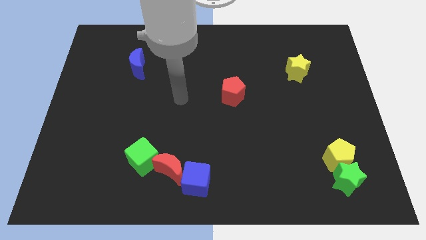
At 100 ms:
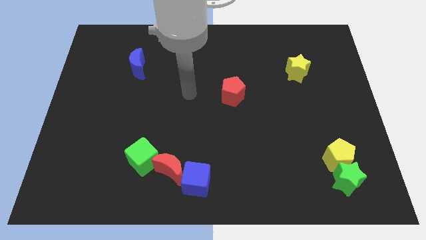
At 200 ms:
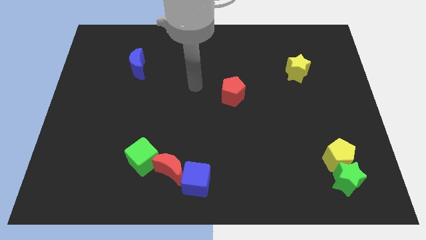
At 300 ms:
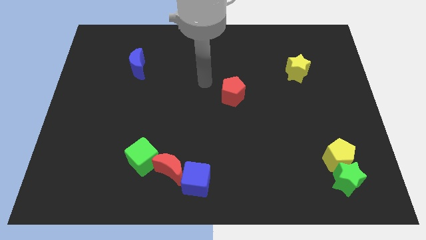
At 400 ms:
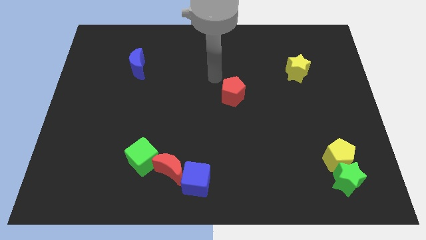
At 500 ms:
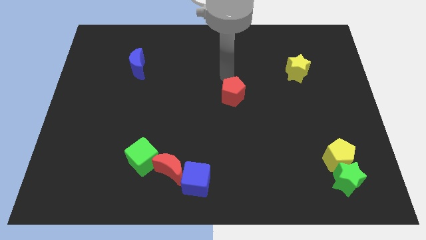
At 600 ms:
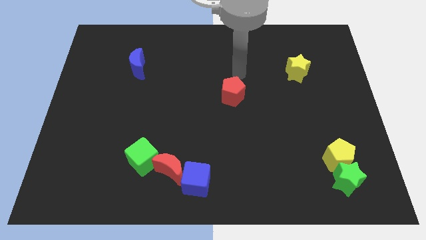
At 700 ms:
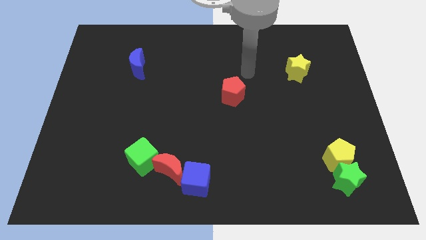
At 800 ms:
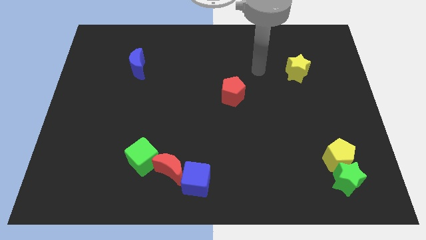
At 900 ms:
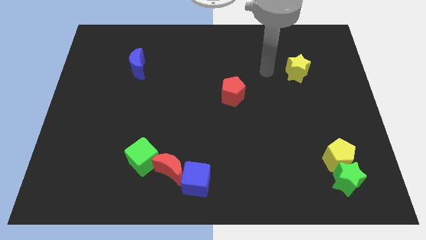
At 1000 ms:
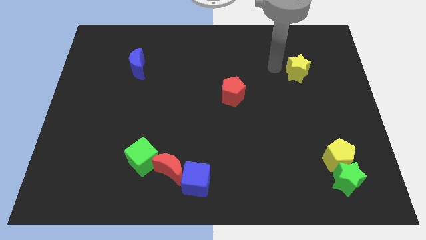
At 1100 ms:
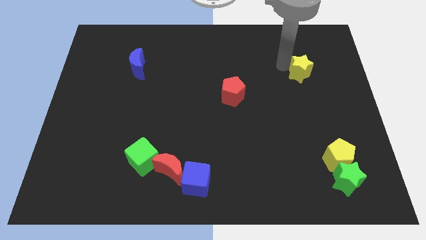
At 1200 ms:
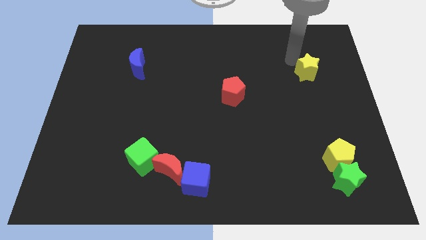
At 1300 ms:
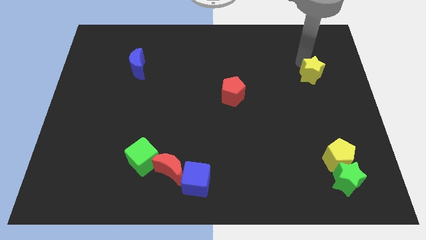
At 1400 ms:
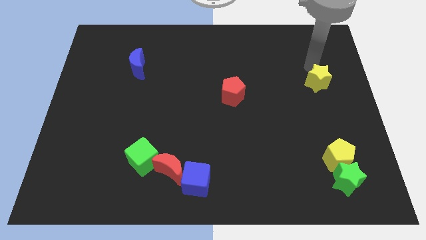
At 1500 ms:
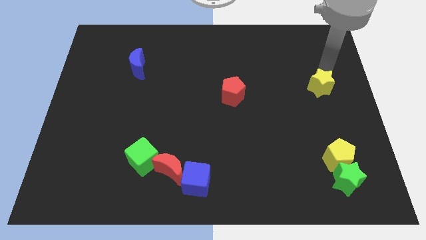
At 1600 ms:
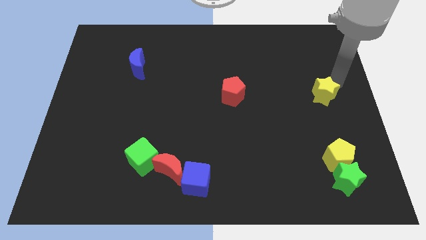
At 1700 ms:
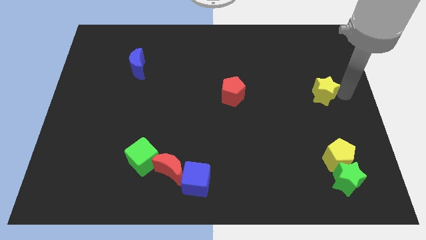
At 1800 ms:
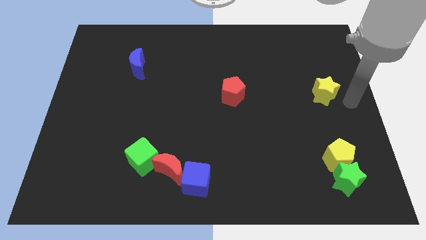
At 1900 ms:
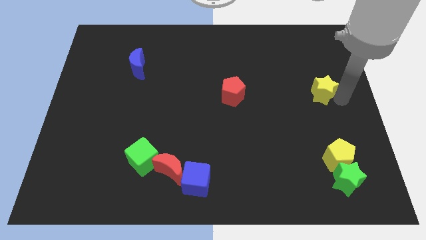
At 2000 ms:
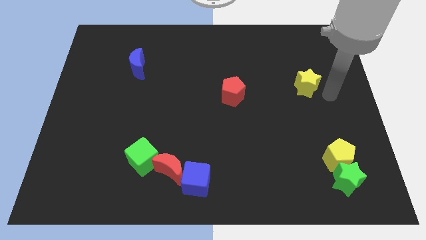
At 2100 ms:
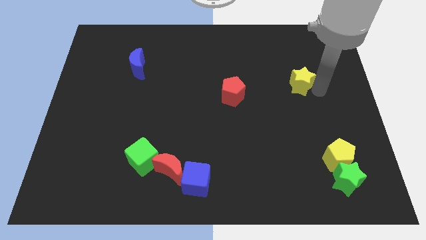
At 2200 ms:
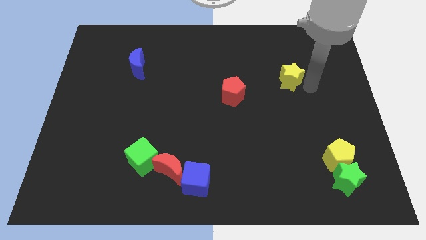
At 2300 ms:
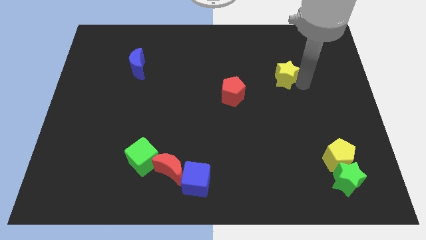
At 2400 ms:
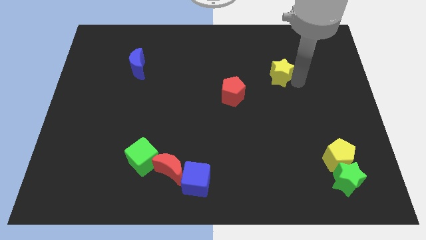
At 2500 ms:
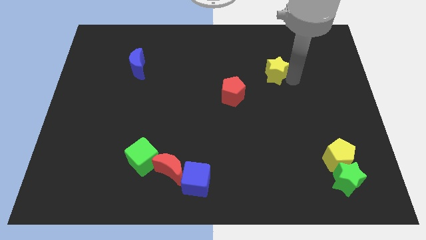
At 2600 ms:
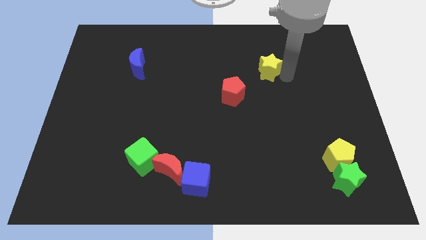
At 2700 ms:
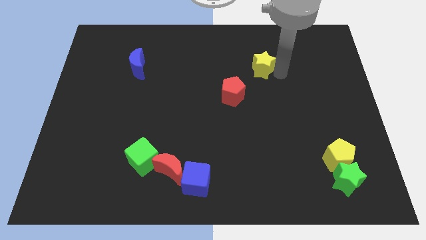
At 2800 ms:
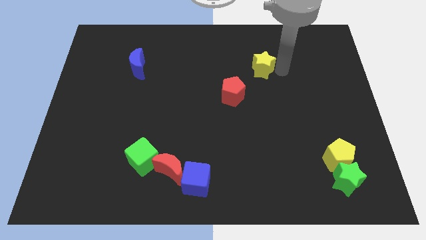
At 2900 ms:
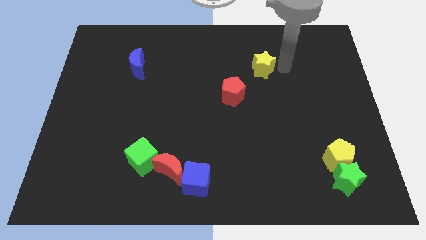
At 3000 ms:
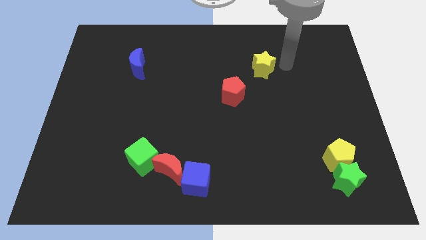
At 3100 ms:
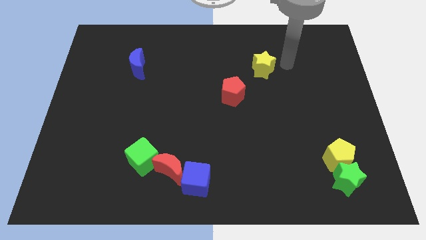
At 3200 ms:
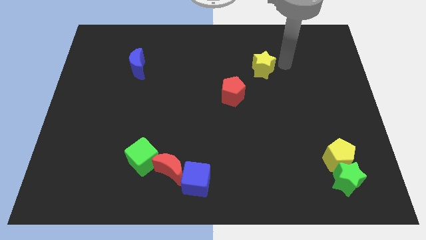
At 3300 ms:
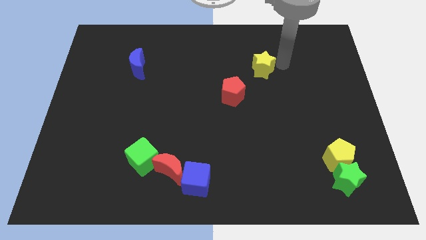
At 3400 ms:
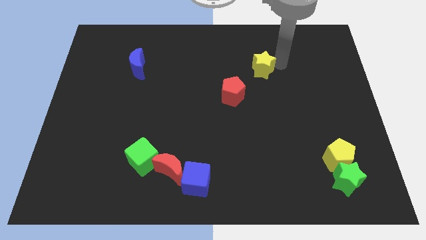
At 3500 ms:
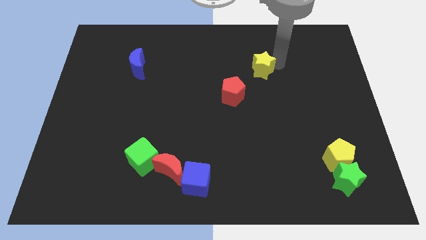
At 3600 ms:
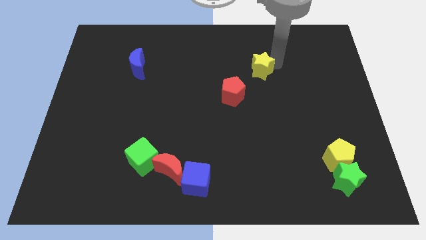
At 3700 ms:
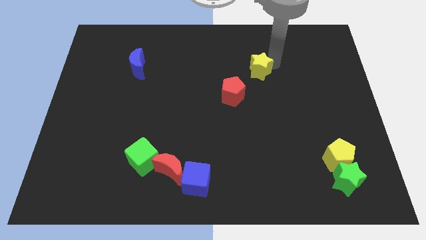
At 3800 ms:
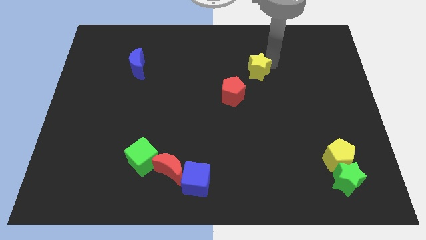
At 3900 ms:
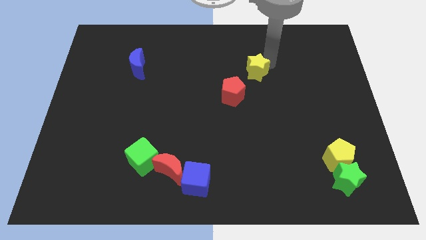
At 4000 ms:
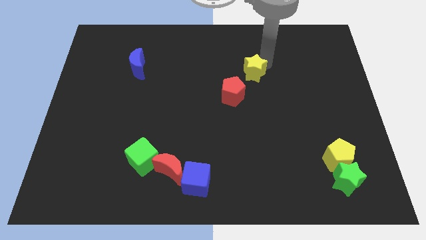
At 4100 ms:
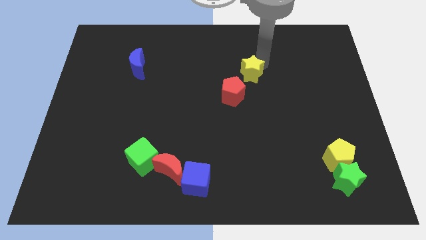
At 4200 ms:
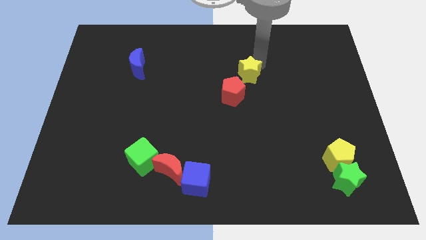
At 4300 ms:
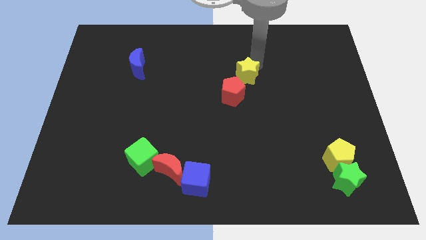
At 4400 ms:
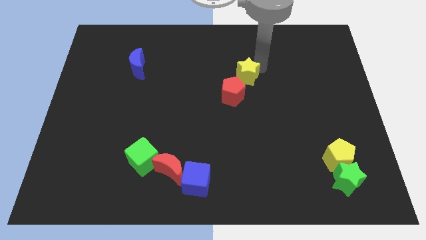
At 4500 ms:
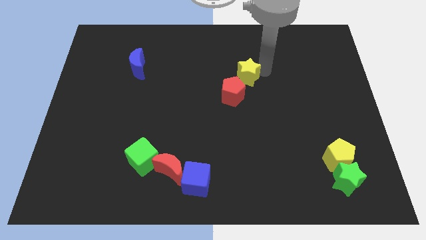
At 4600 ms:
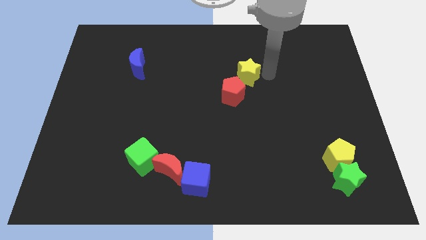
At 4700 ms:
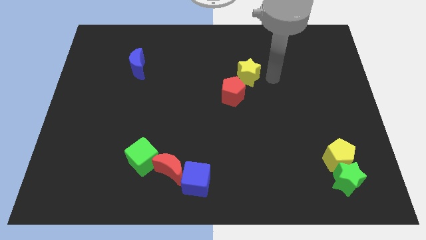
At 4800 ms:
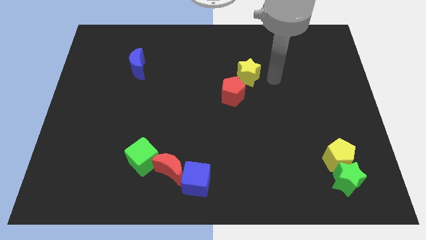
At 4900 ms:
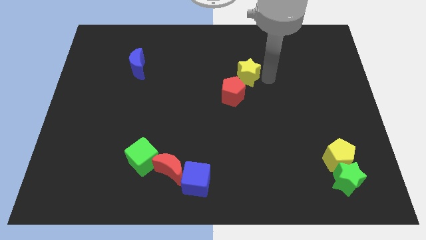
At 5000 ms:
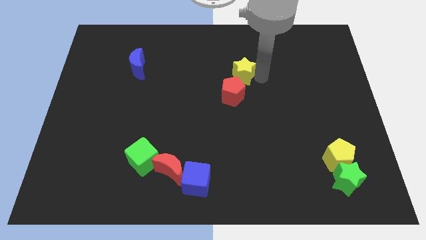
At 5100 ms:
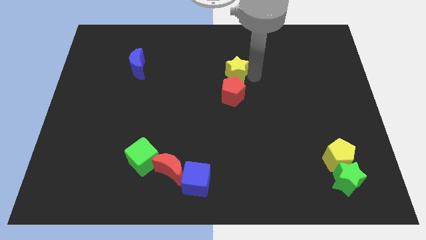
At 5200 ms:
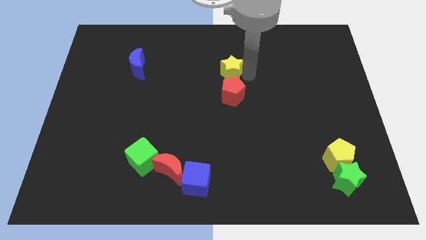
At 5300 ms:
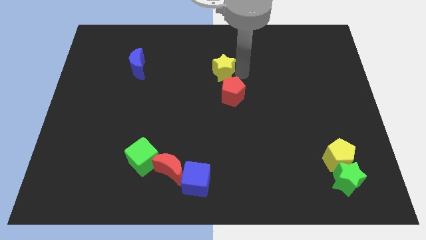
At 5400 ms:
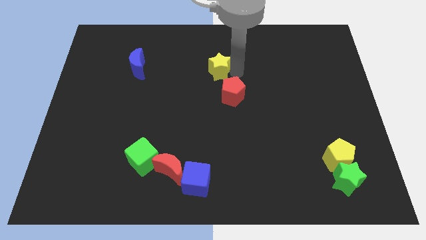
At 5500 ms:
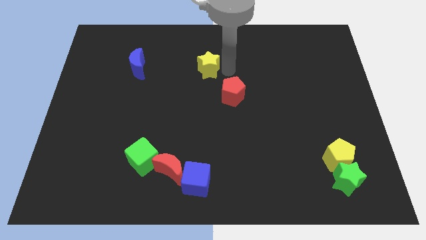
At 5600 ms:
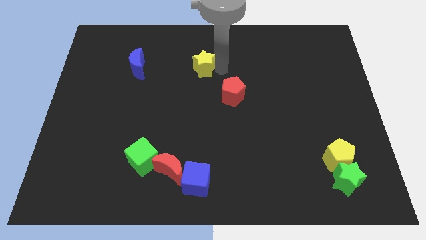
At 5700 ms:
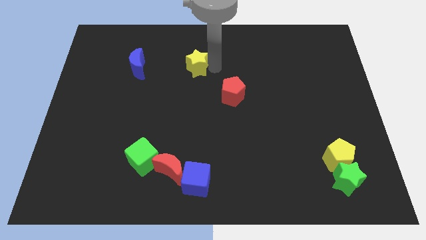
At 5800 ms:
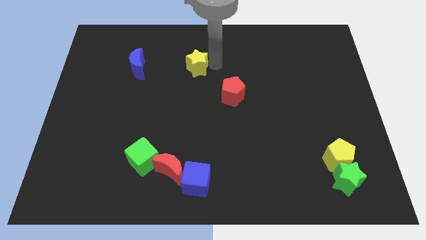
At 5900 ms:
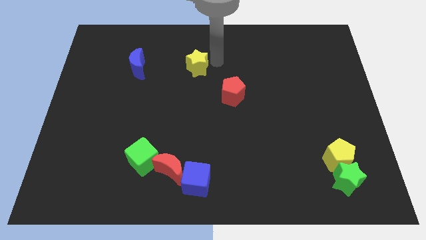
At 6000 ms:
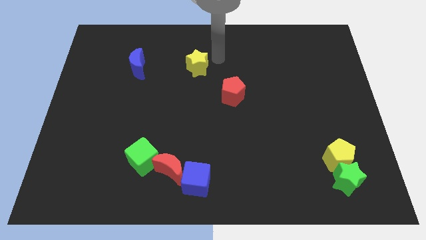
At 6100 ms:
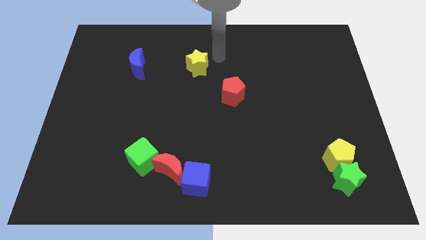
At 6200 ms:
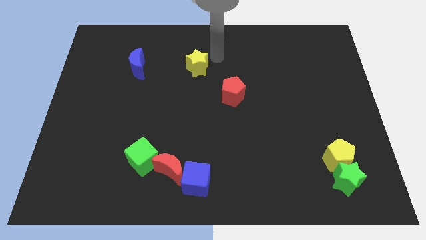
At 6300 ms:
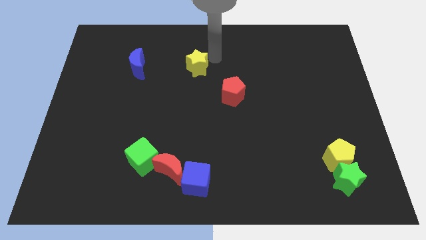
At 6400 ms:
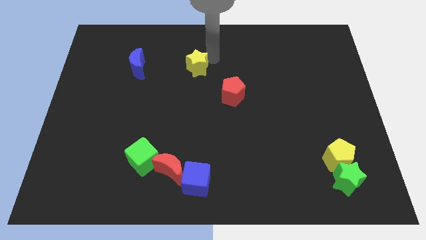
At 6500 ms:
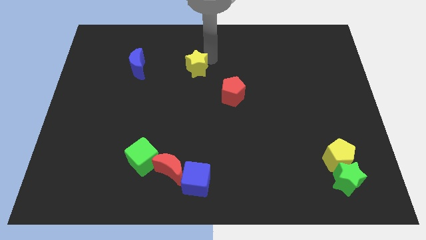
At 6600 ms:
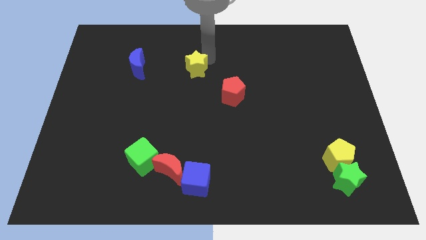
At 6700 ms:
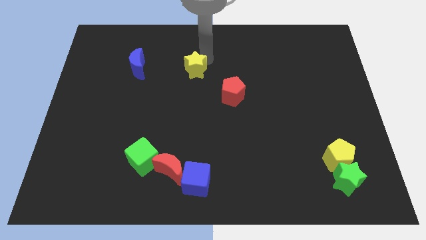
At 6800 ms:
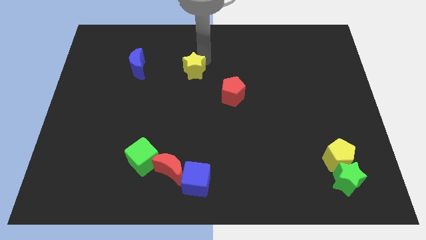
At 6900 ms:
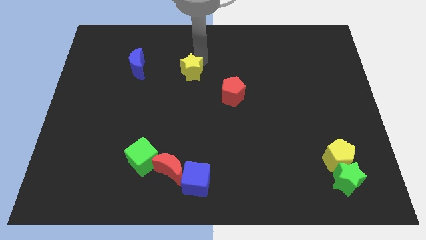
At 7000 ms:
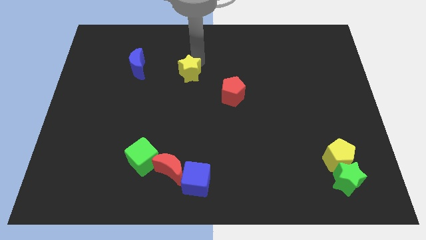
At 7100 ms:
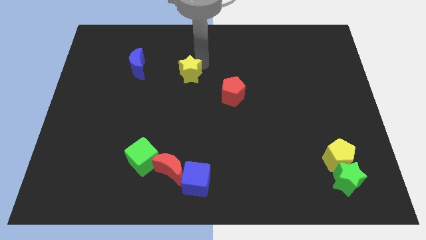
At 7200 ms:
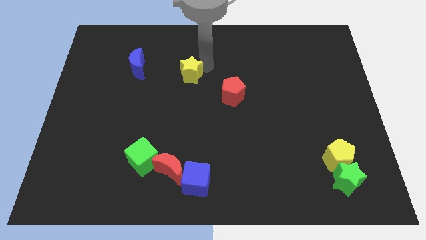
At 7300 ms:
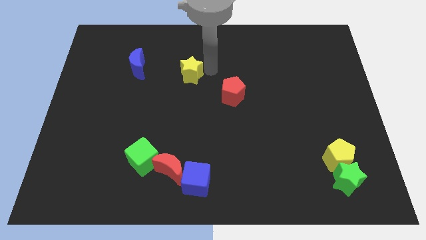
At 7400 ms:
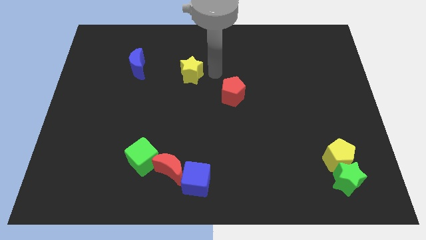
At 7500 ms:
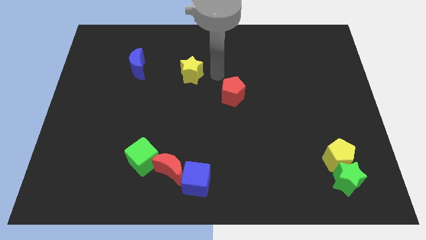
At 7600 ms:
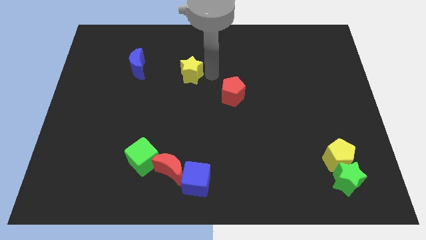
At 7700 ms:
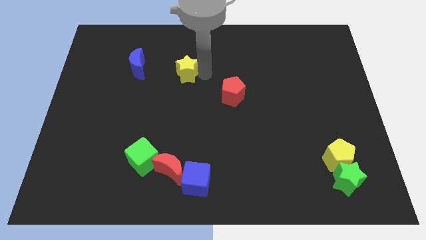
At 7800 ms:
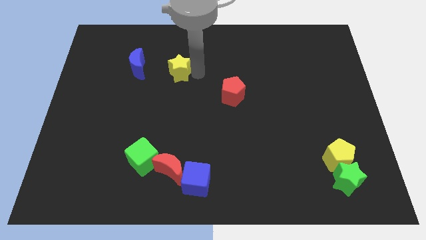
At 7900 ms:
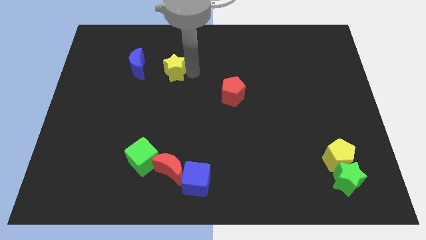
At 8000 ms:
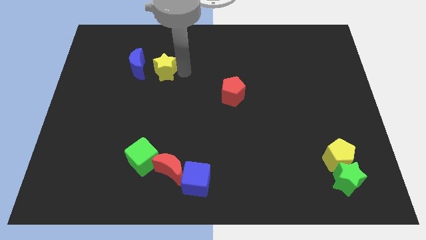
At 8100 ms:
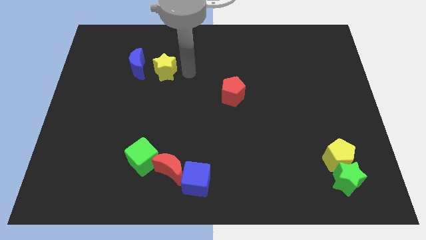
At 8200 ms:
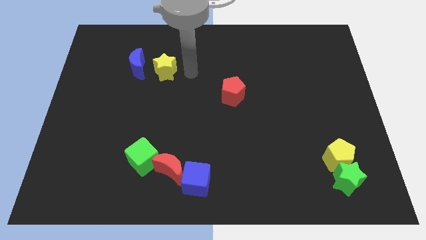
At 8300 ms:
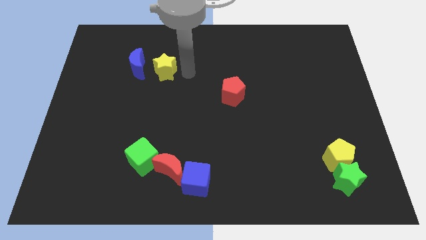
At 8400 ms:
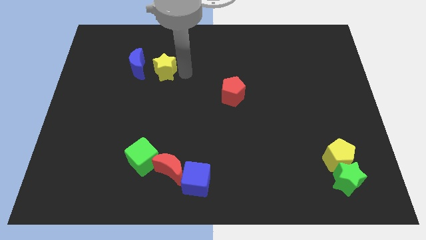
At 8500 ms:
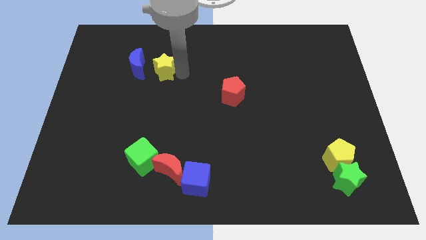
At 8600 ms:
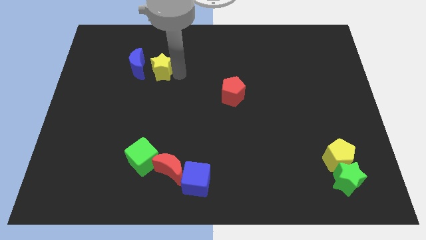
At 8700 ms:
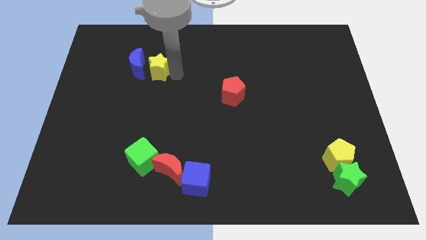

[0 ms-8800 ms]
slide the yellow star close to the blue moon
